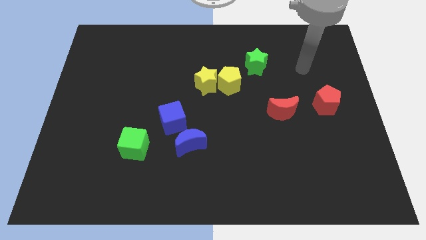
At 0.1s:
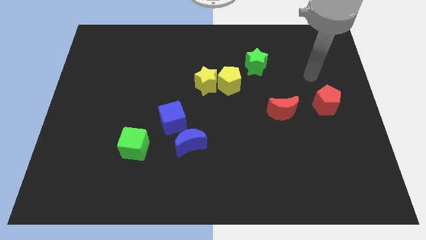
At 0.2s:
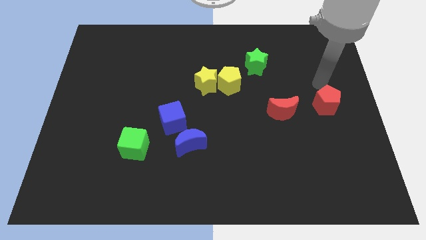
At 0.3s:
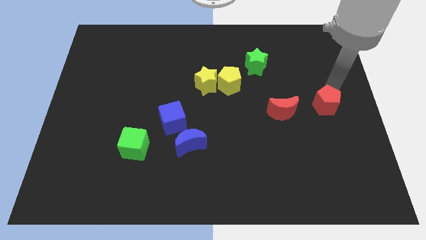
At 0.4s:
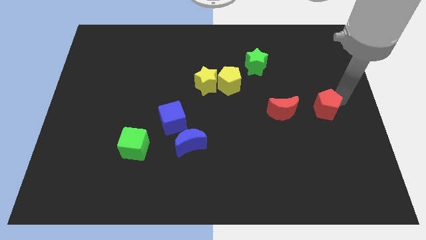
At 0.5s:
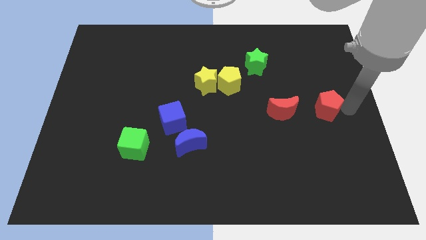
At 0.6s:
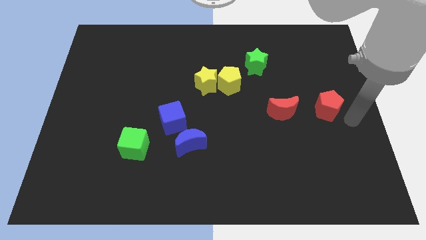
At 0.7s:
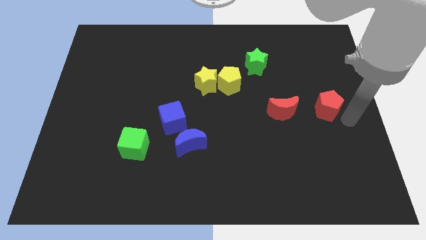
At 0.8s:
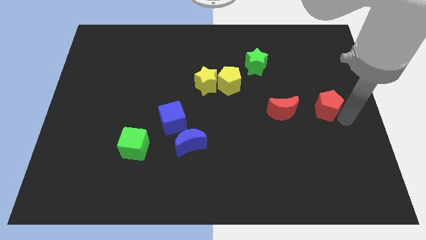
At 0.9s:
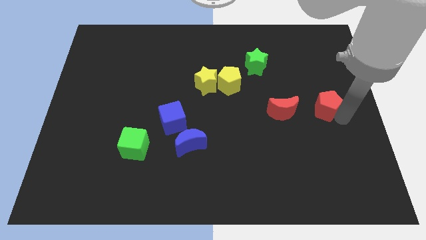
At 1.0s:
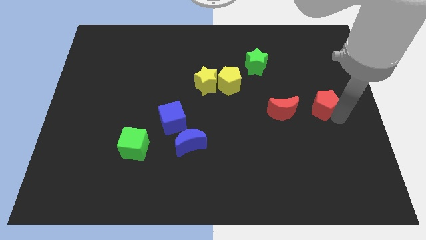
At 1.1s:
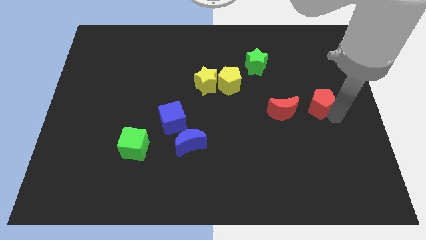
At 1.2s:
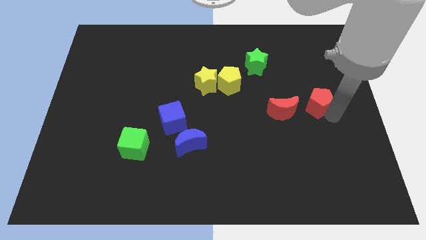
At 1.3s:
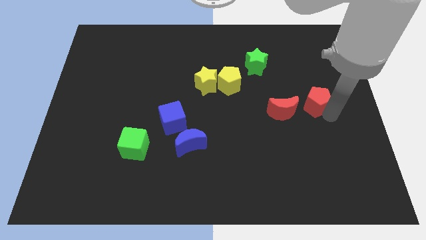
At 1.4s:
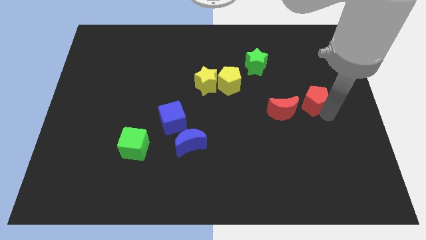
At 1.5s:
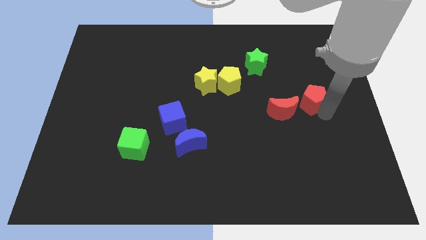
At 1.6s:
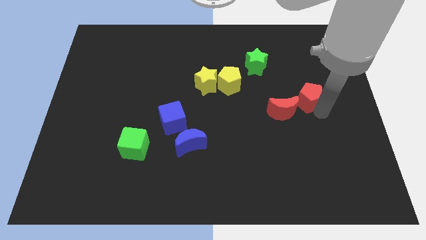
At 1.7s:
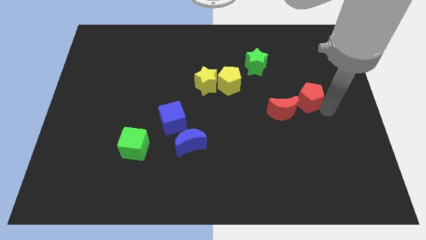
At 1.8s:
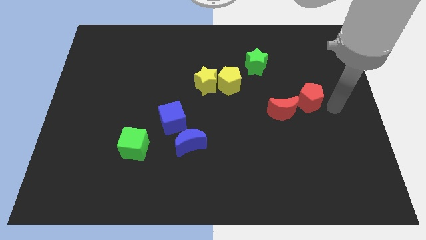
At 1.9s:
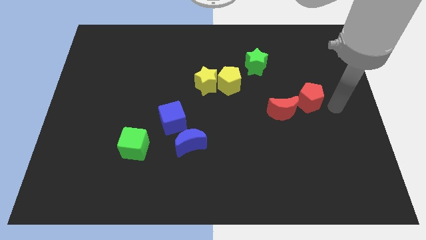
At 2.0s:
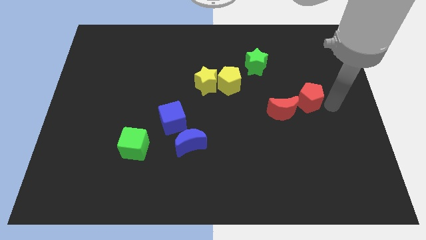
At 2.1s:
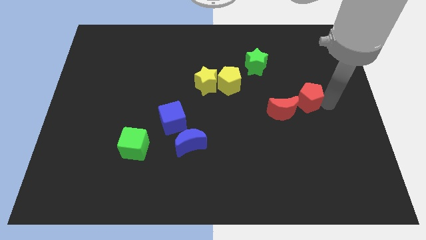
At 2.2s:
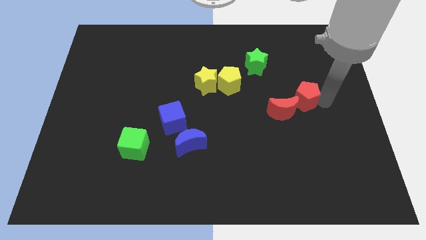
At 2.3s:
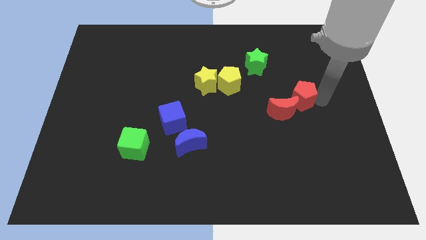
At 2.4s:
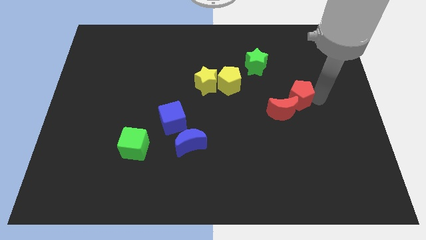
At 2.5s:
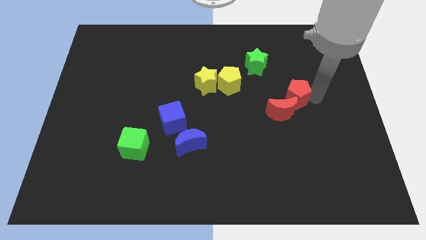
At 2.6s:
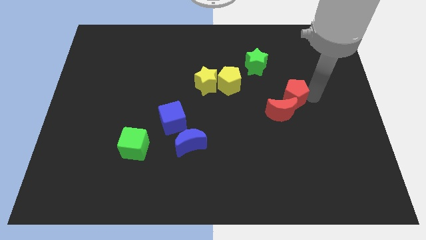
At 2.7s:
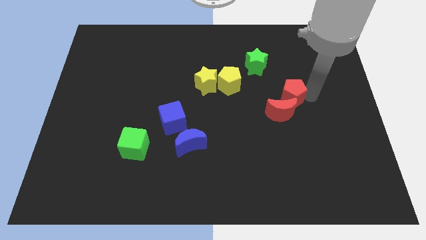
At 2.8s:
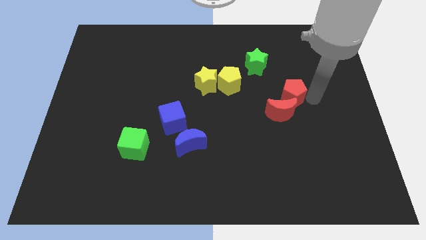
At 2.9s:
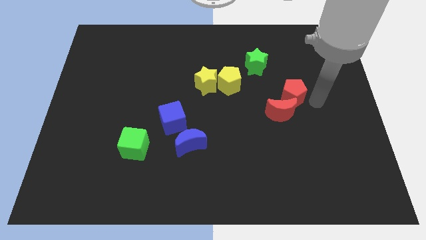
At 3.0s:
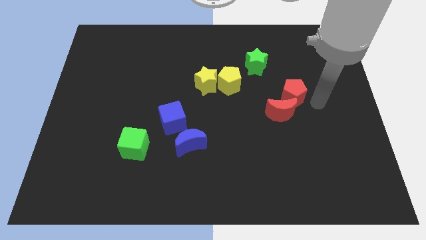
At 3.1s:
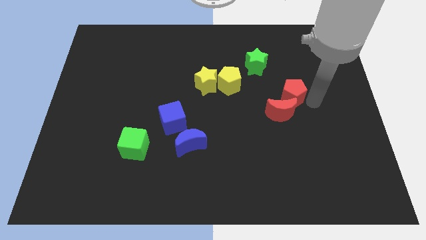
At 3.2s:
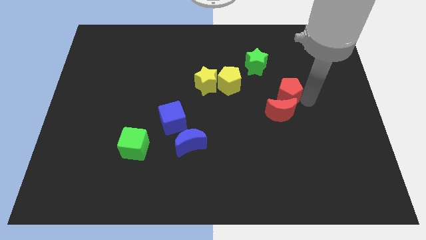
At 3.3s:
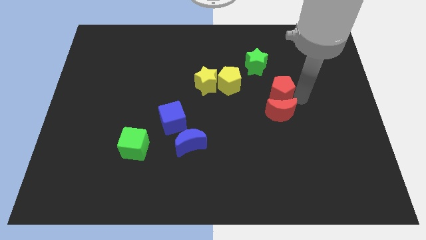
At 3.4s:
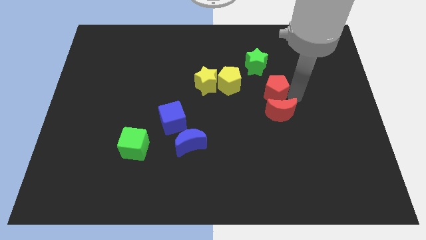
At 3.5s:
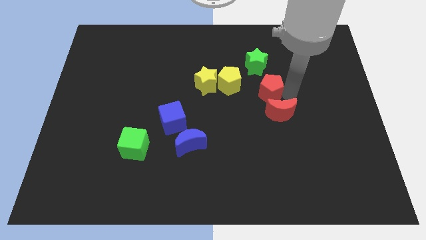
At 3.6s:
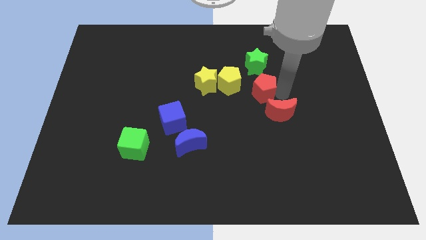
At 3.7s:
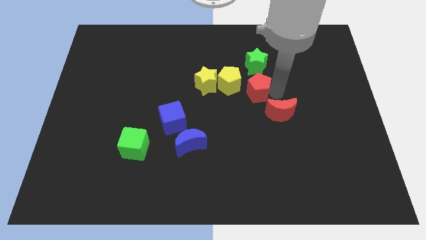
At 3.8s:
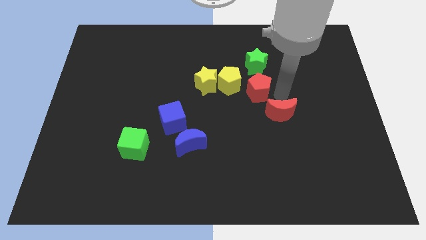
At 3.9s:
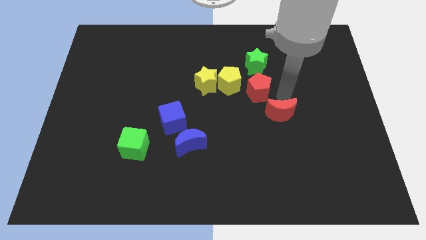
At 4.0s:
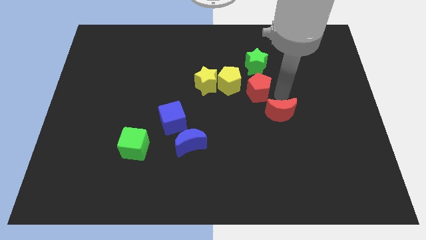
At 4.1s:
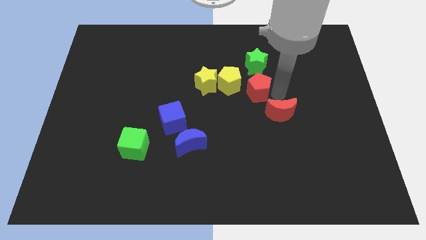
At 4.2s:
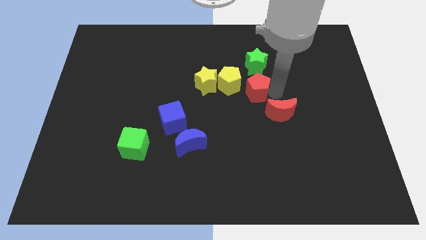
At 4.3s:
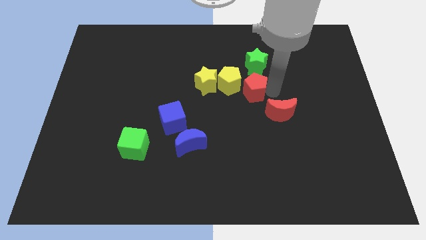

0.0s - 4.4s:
push the red pentagon next to the yellow pentagon

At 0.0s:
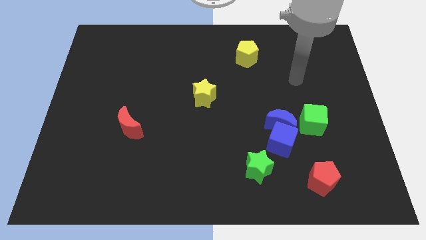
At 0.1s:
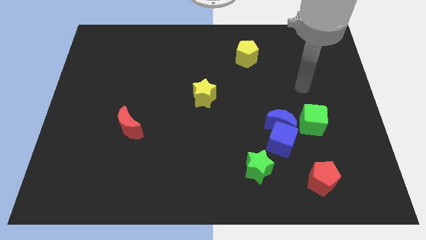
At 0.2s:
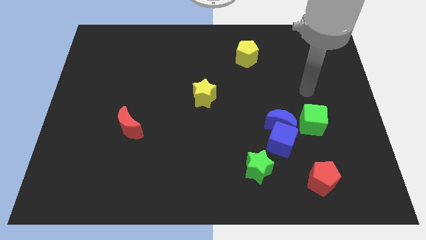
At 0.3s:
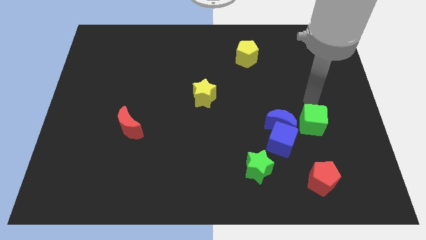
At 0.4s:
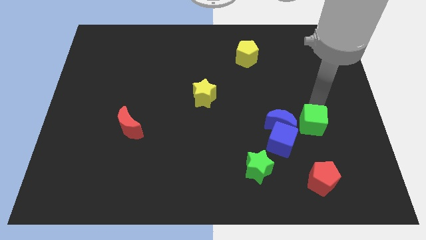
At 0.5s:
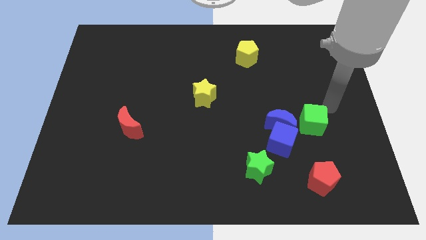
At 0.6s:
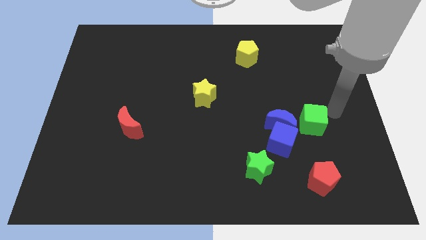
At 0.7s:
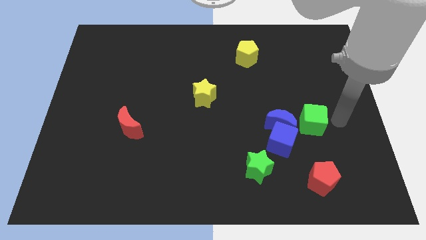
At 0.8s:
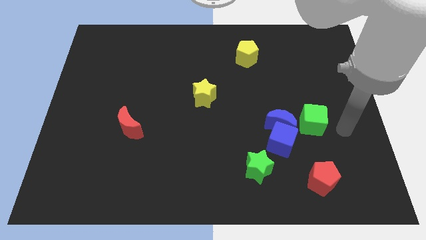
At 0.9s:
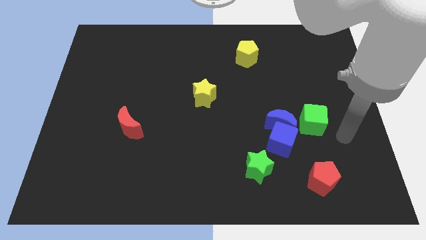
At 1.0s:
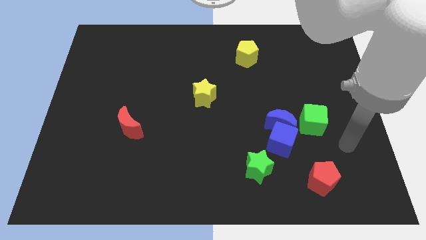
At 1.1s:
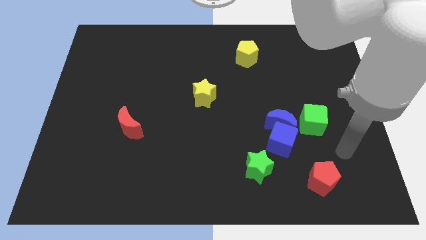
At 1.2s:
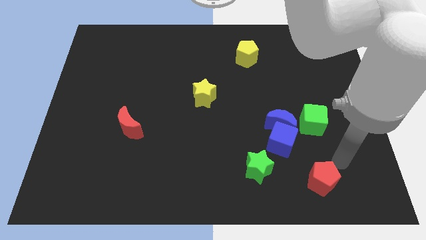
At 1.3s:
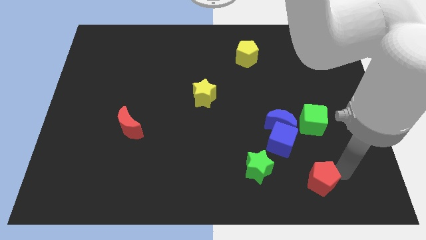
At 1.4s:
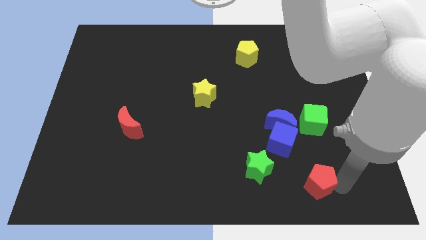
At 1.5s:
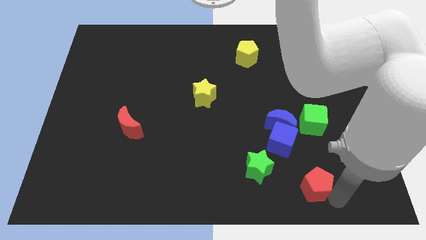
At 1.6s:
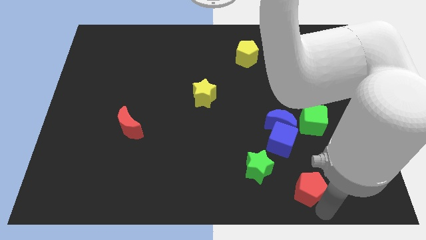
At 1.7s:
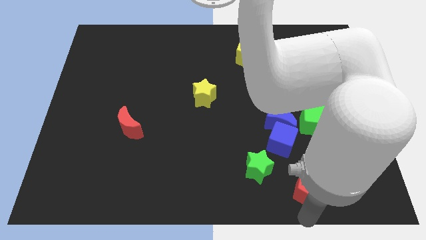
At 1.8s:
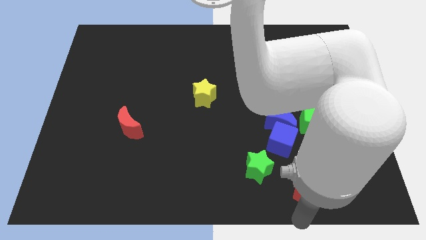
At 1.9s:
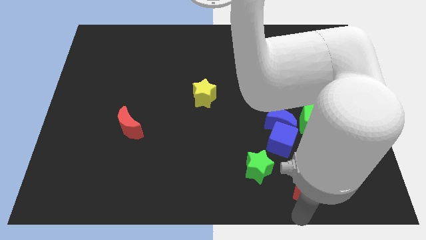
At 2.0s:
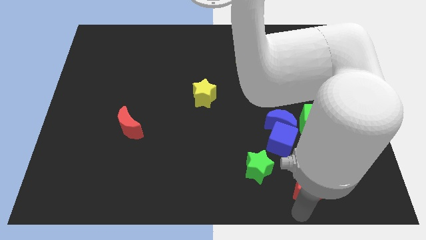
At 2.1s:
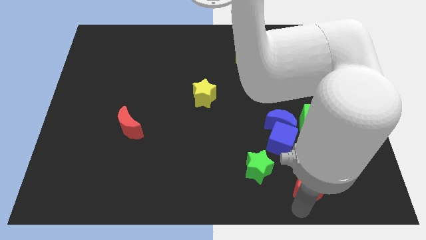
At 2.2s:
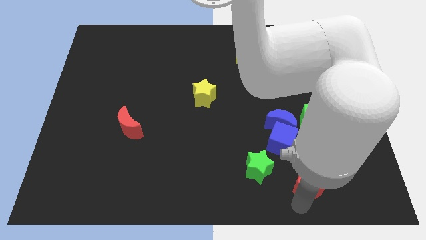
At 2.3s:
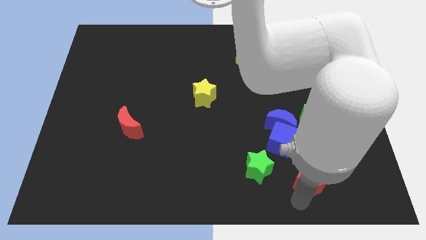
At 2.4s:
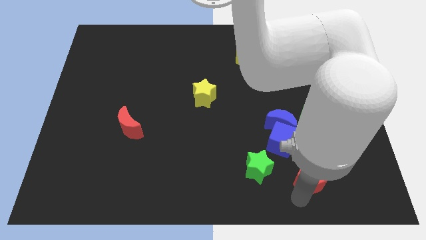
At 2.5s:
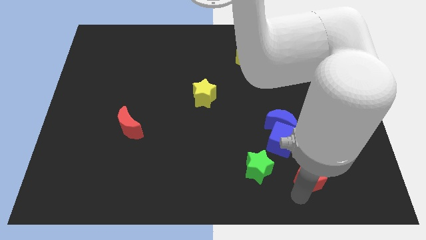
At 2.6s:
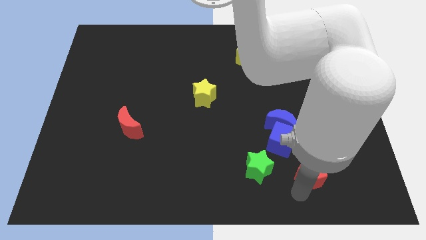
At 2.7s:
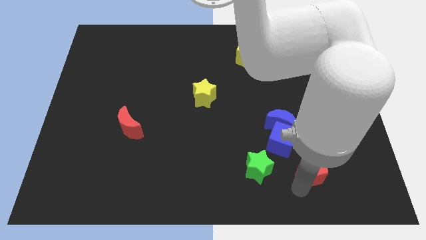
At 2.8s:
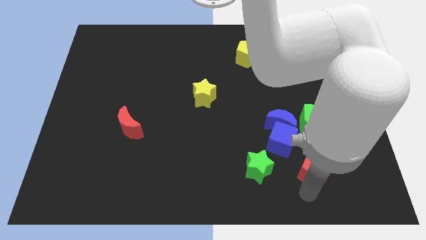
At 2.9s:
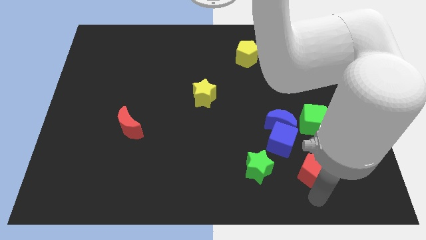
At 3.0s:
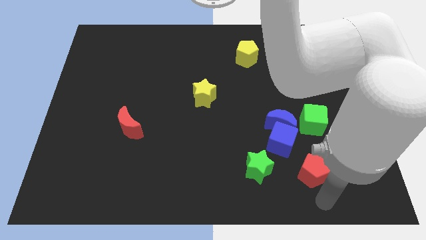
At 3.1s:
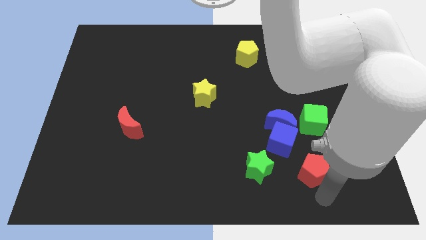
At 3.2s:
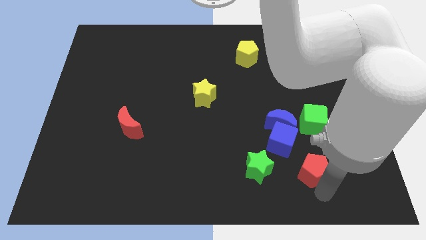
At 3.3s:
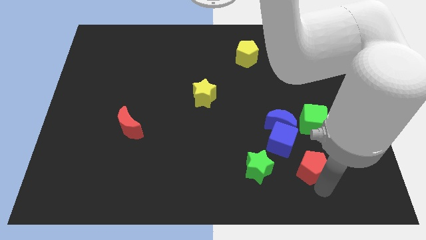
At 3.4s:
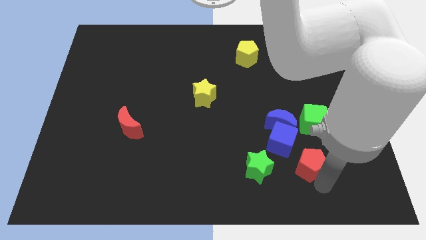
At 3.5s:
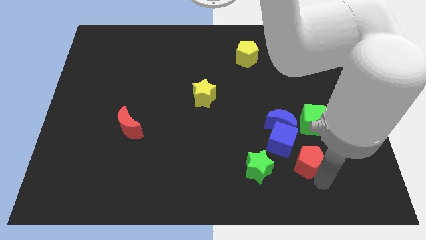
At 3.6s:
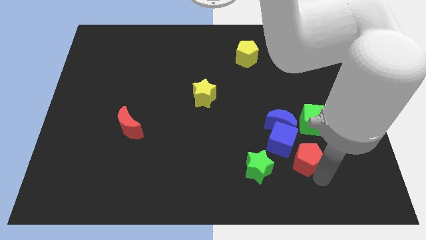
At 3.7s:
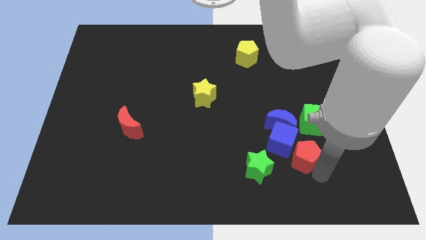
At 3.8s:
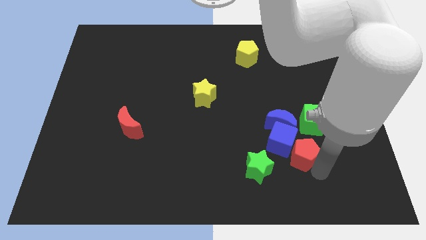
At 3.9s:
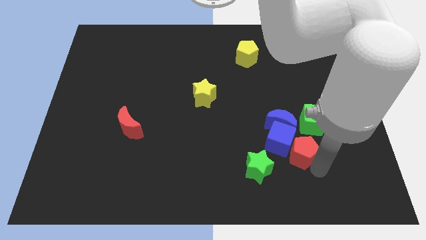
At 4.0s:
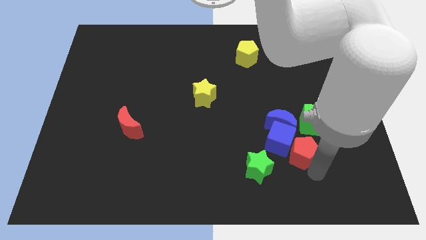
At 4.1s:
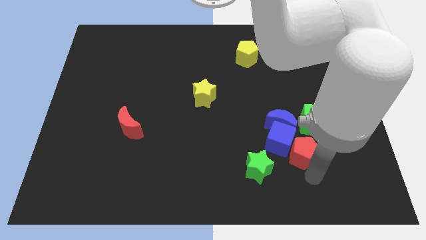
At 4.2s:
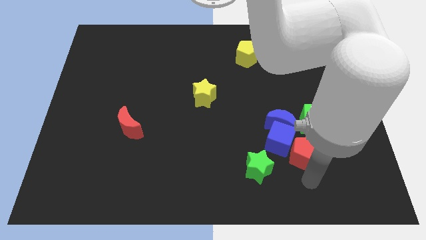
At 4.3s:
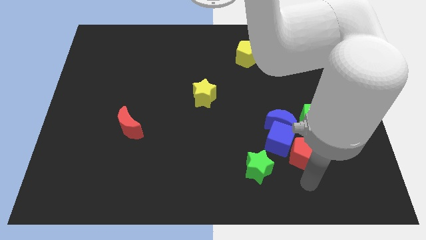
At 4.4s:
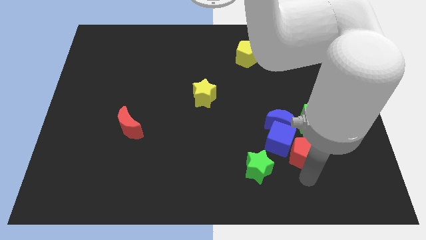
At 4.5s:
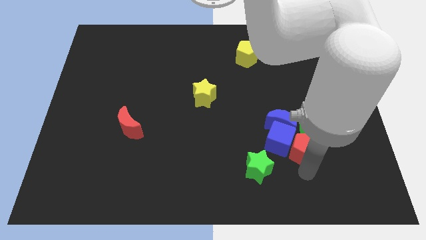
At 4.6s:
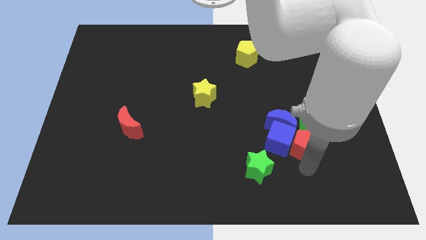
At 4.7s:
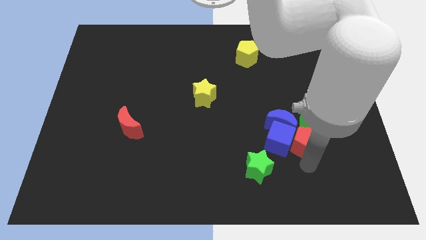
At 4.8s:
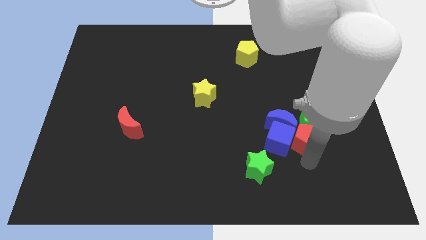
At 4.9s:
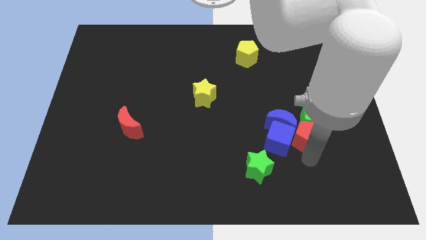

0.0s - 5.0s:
slide the red pentagon towards the blue moon
